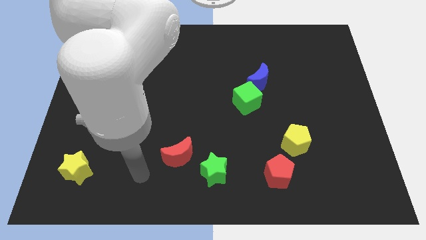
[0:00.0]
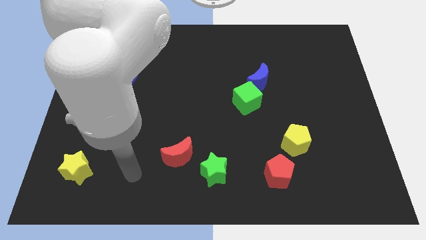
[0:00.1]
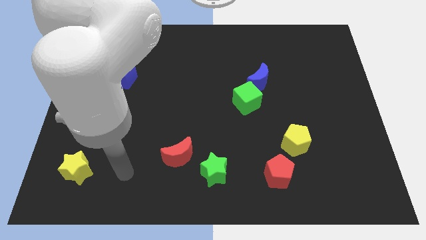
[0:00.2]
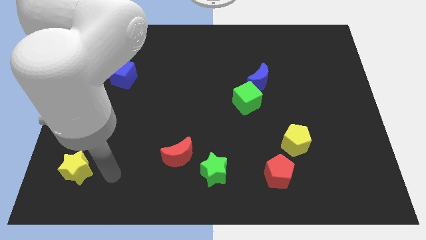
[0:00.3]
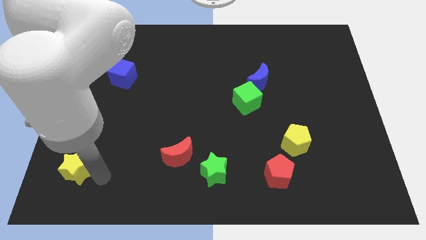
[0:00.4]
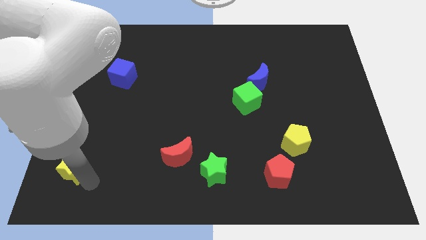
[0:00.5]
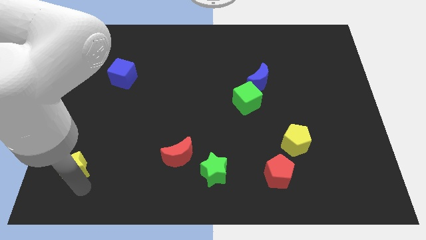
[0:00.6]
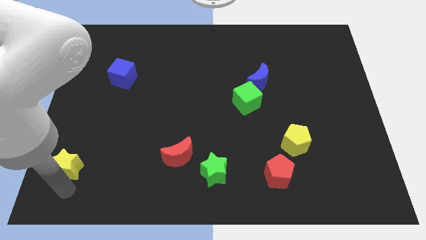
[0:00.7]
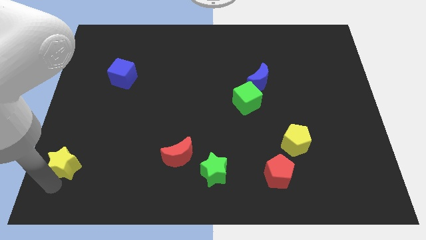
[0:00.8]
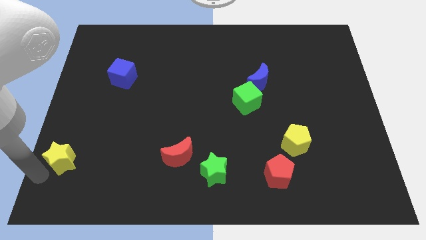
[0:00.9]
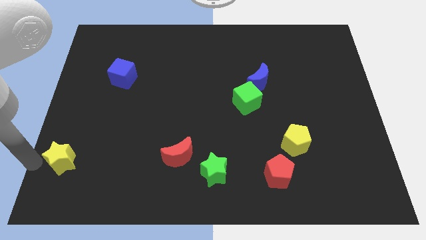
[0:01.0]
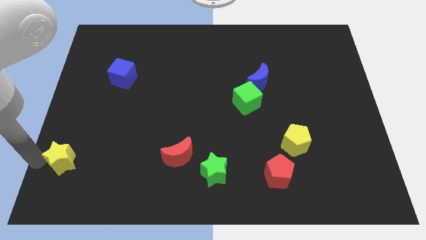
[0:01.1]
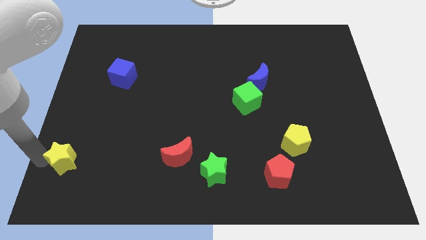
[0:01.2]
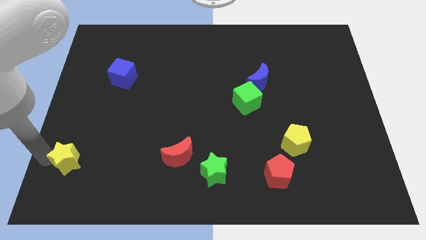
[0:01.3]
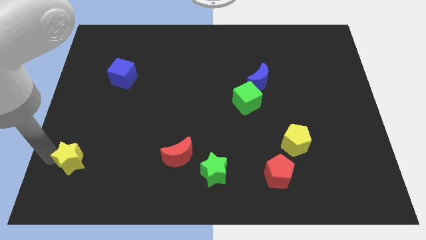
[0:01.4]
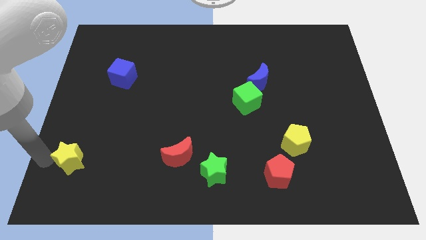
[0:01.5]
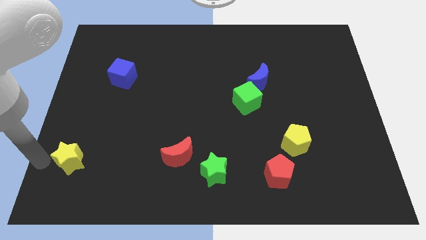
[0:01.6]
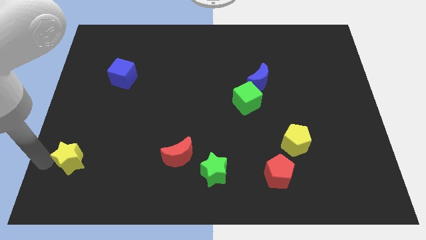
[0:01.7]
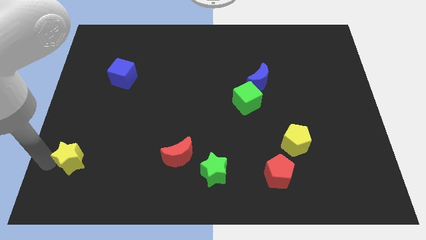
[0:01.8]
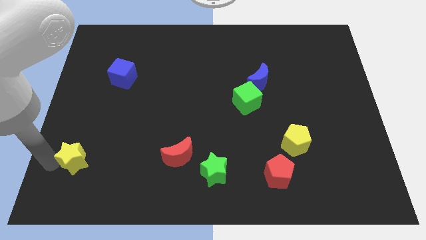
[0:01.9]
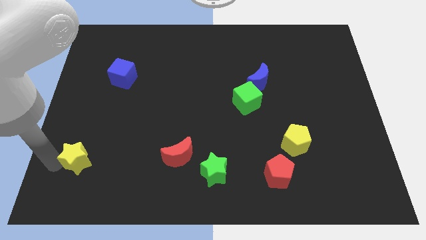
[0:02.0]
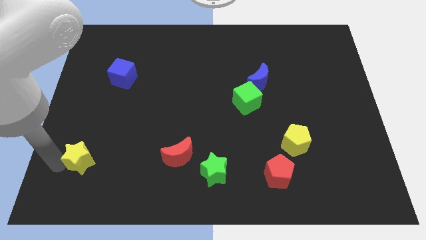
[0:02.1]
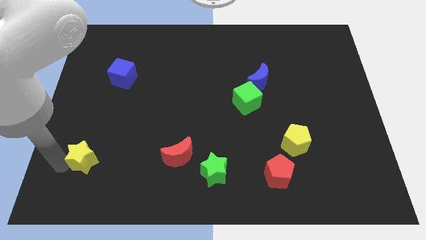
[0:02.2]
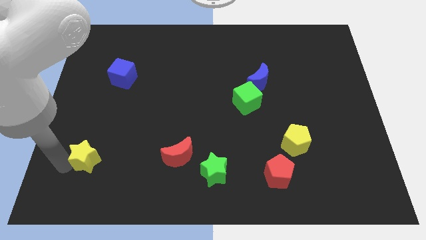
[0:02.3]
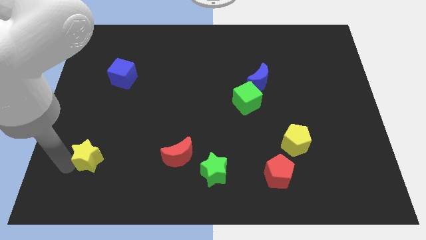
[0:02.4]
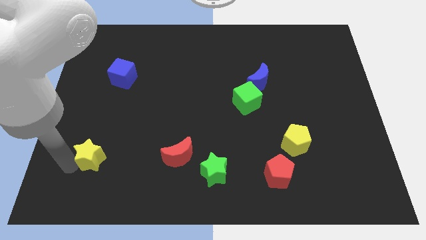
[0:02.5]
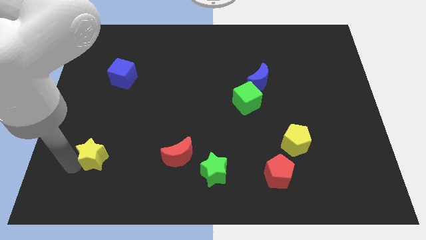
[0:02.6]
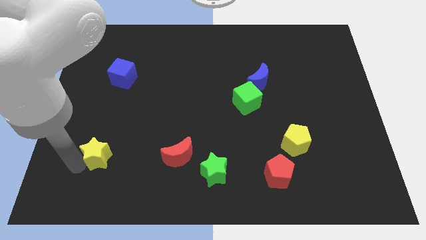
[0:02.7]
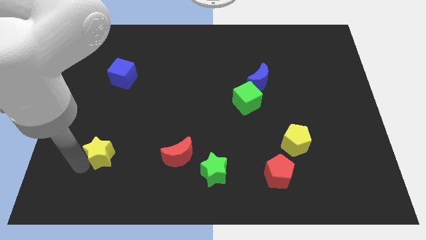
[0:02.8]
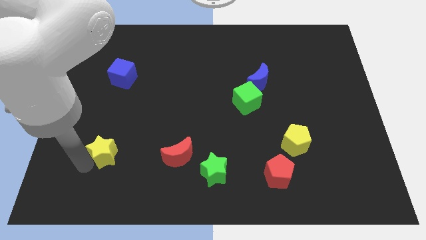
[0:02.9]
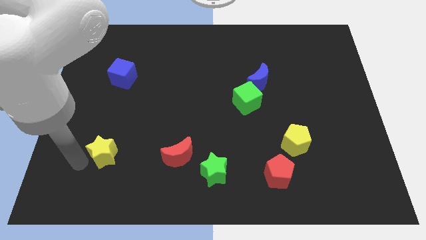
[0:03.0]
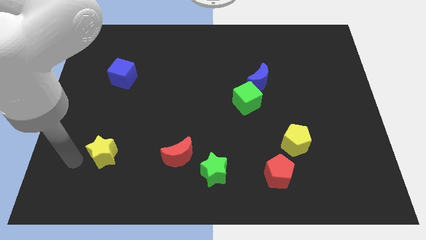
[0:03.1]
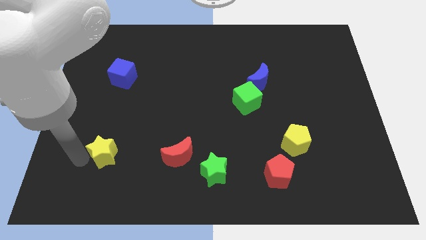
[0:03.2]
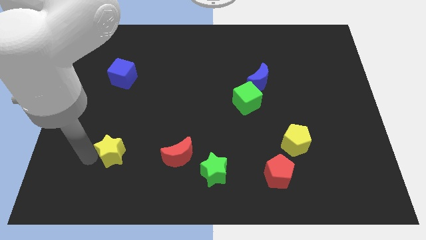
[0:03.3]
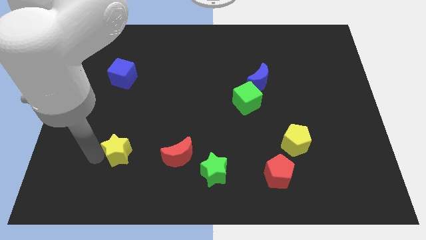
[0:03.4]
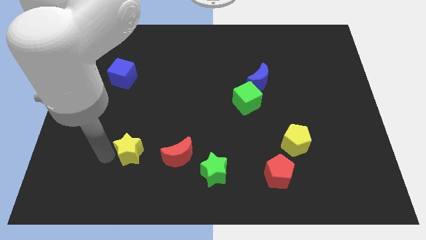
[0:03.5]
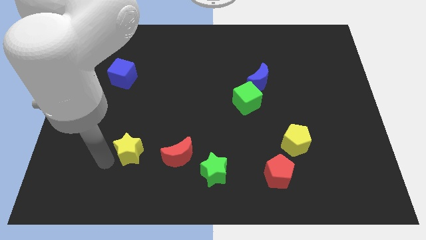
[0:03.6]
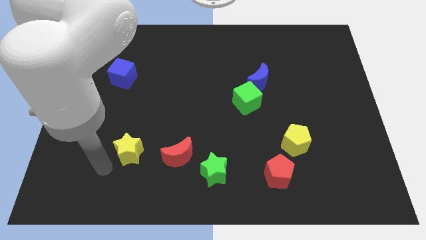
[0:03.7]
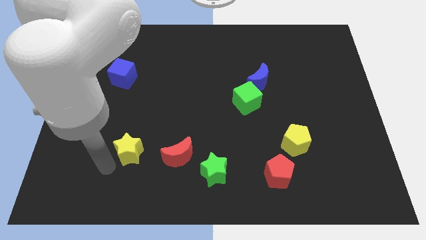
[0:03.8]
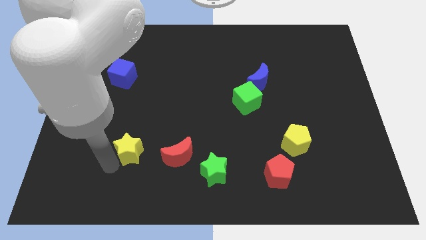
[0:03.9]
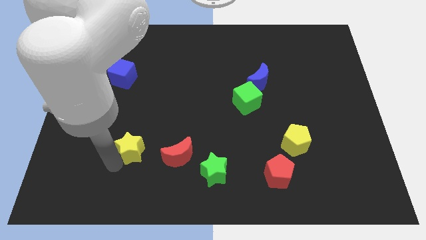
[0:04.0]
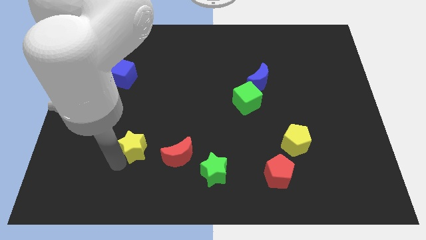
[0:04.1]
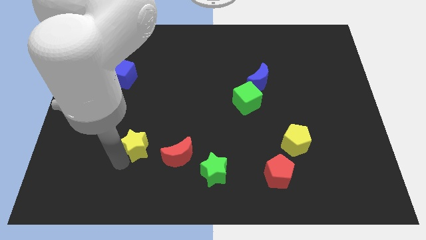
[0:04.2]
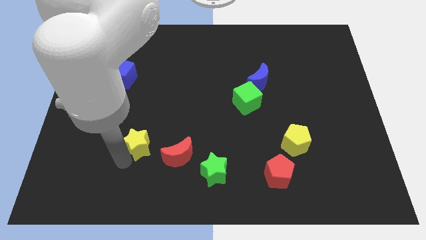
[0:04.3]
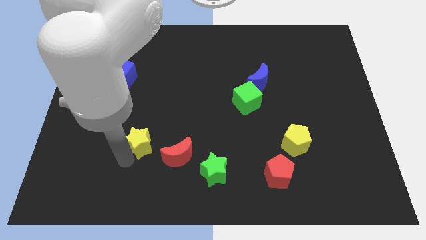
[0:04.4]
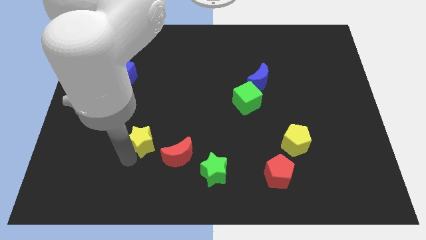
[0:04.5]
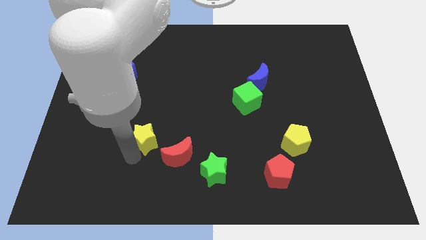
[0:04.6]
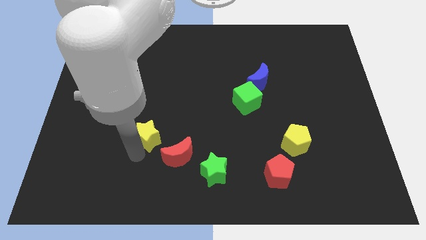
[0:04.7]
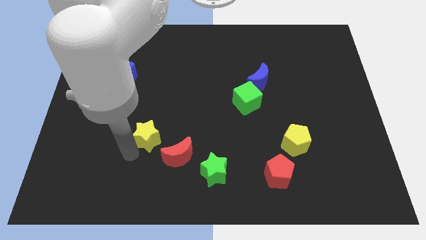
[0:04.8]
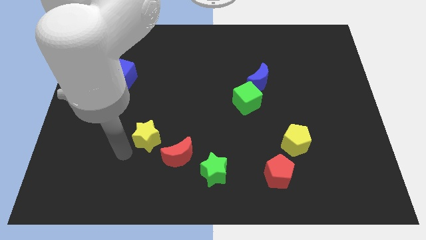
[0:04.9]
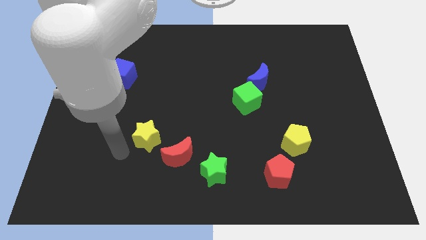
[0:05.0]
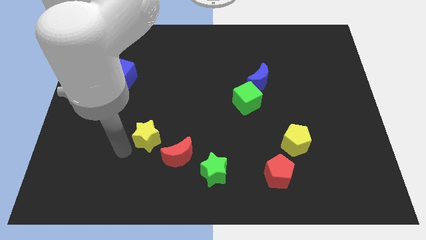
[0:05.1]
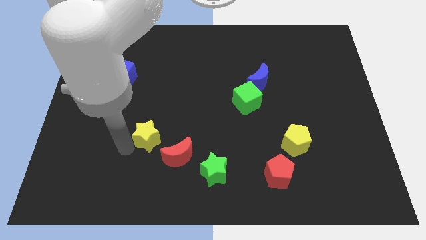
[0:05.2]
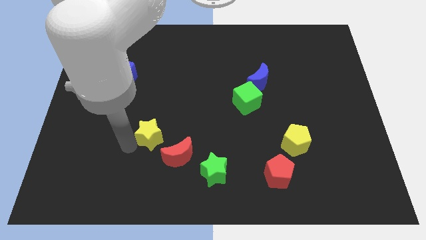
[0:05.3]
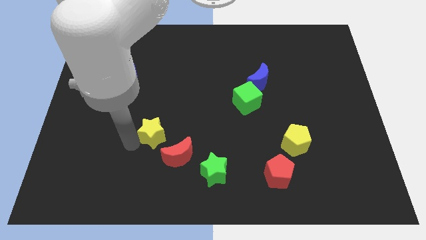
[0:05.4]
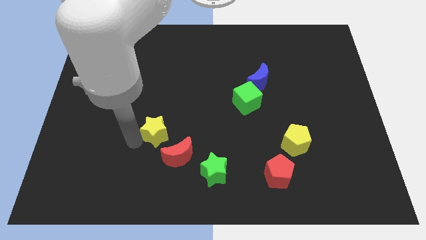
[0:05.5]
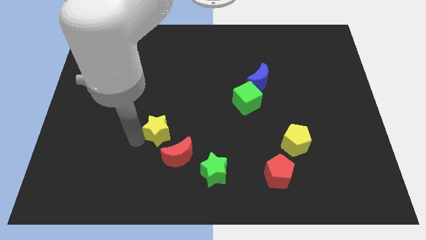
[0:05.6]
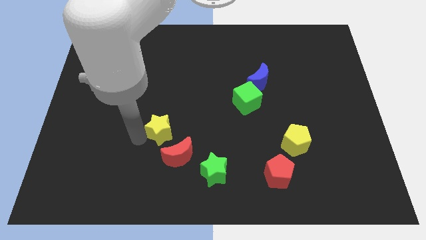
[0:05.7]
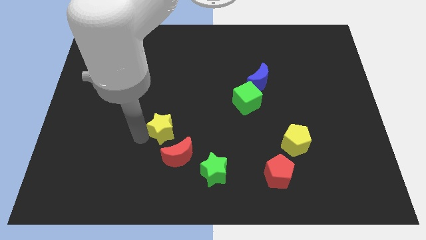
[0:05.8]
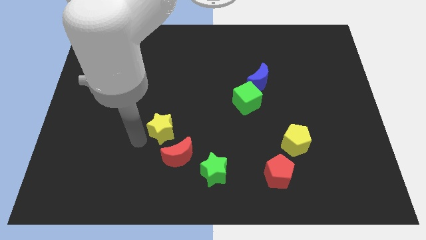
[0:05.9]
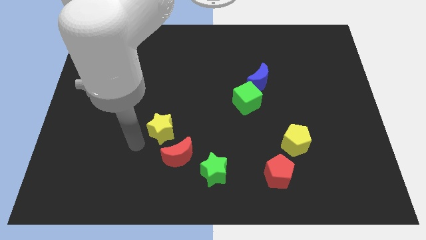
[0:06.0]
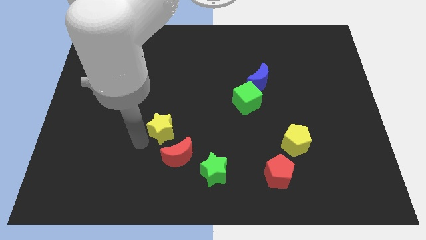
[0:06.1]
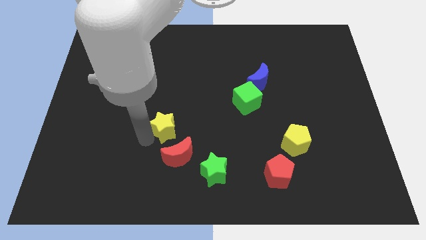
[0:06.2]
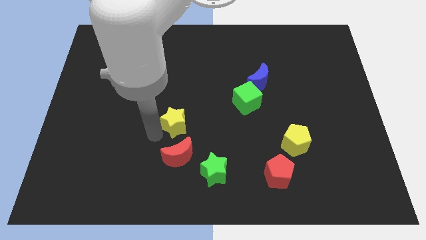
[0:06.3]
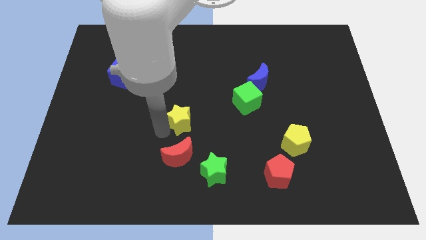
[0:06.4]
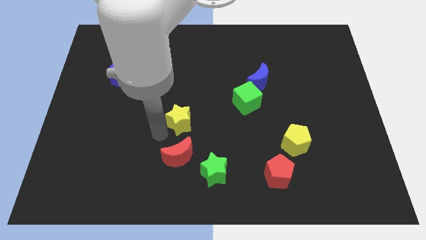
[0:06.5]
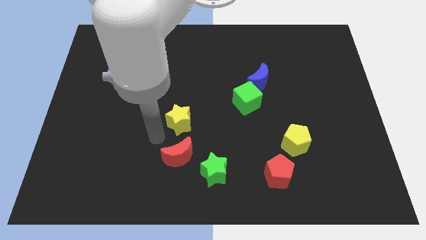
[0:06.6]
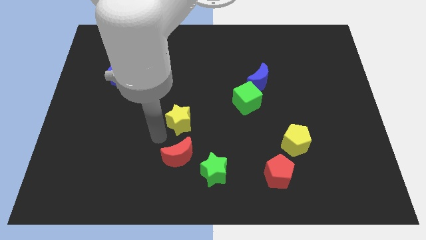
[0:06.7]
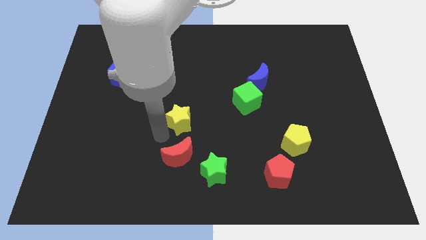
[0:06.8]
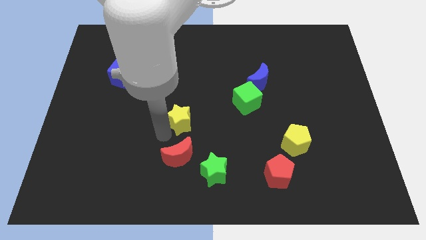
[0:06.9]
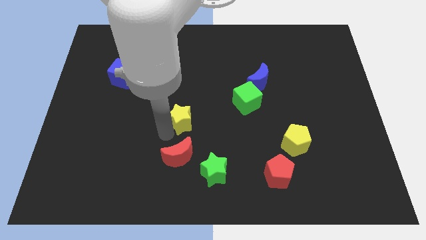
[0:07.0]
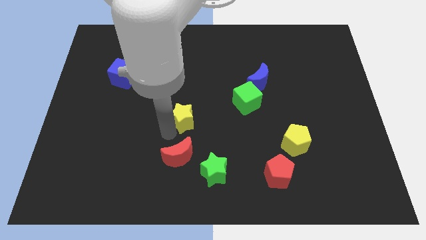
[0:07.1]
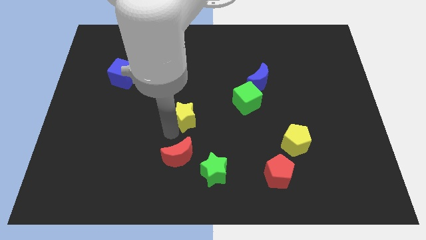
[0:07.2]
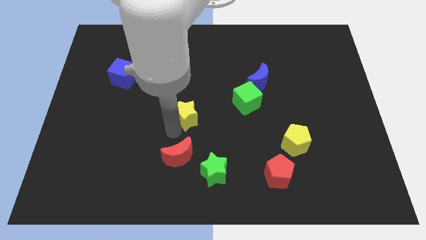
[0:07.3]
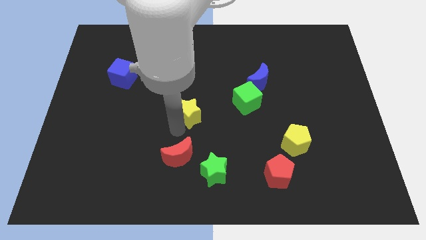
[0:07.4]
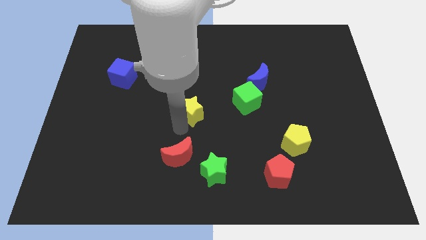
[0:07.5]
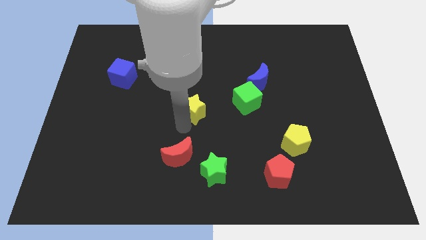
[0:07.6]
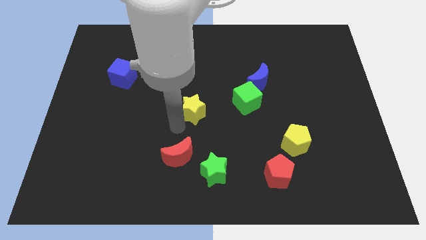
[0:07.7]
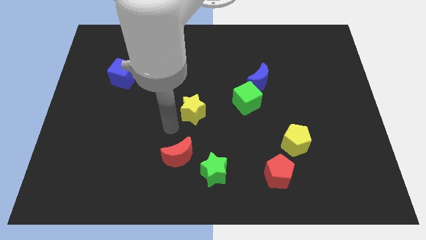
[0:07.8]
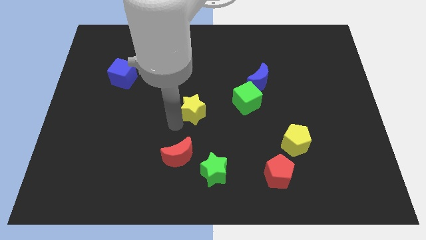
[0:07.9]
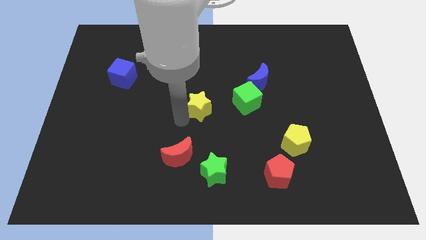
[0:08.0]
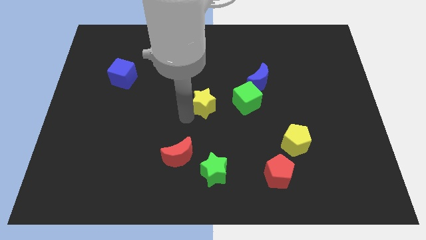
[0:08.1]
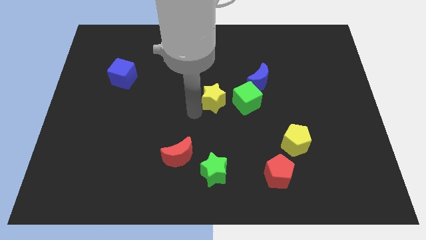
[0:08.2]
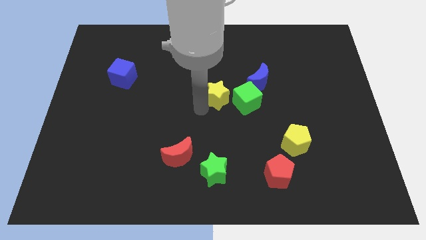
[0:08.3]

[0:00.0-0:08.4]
put the yellow star diagonally up and to the left of the green cube
